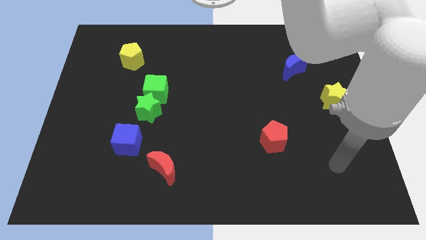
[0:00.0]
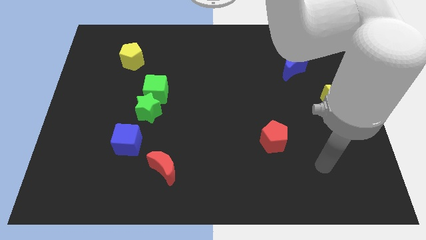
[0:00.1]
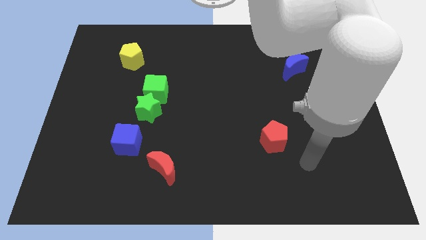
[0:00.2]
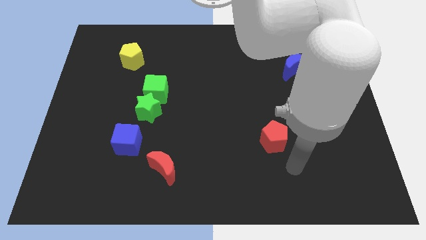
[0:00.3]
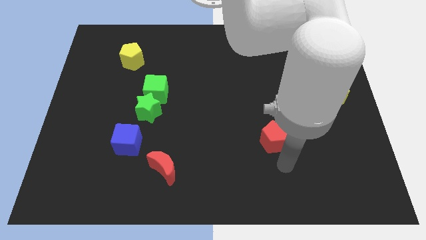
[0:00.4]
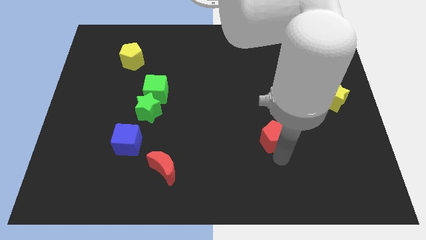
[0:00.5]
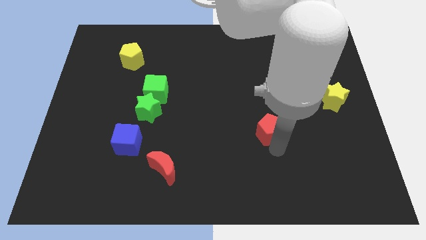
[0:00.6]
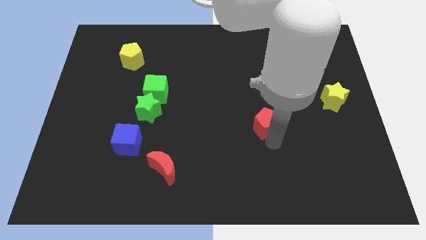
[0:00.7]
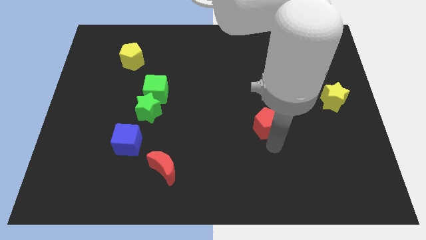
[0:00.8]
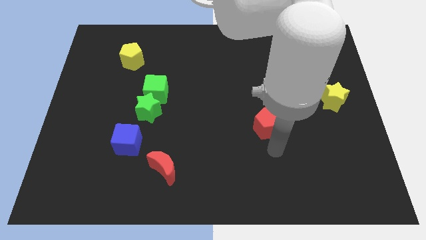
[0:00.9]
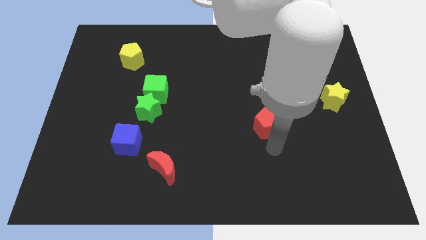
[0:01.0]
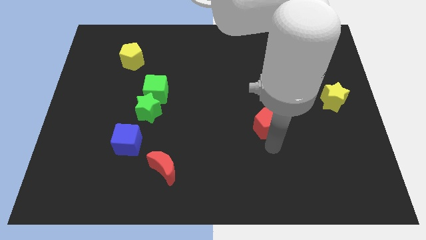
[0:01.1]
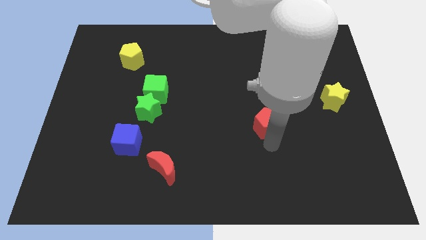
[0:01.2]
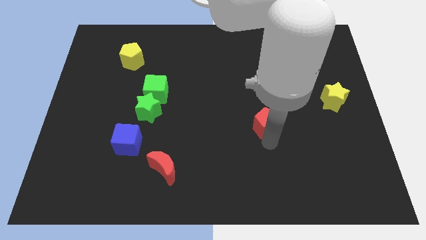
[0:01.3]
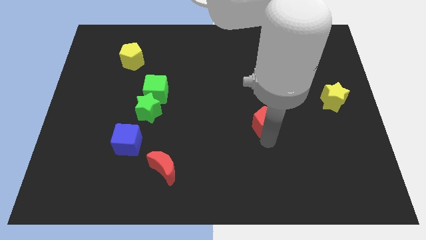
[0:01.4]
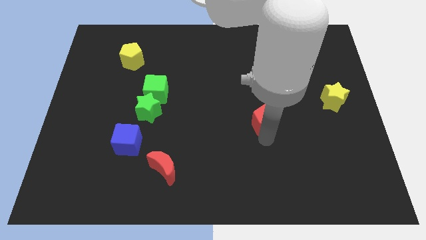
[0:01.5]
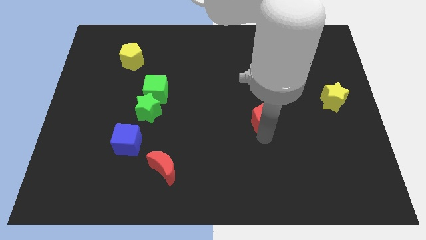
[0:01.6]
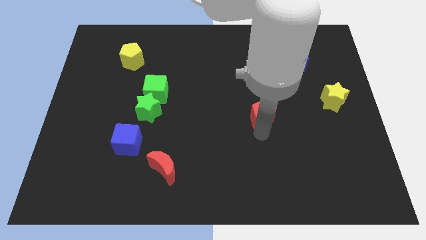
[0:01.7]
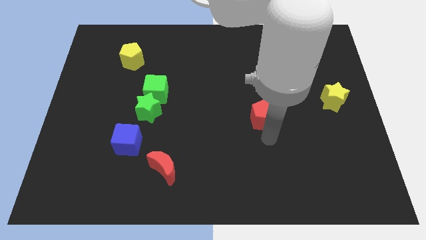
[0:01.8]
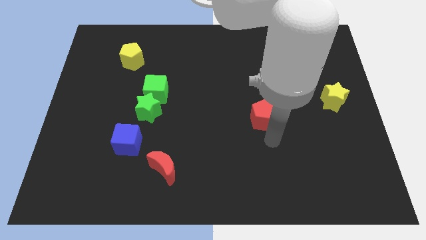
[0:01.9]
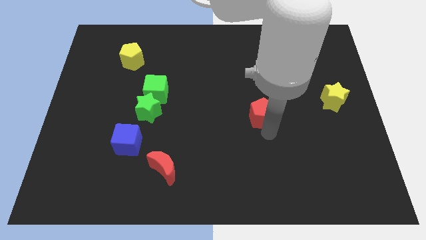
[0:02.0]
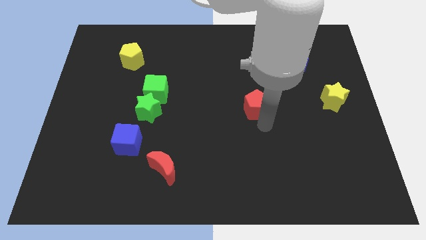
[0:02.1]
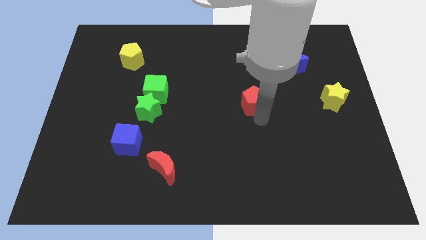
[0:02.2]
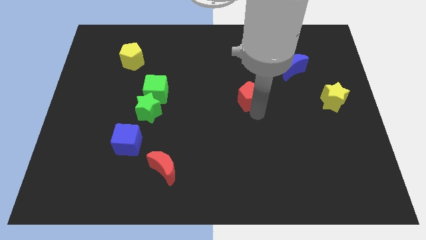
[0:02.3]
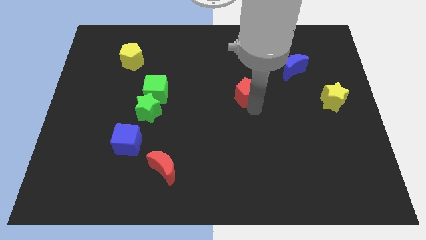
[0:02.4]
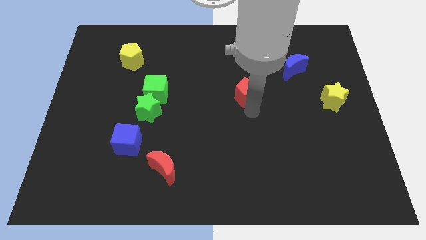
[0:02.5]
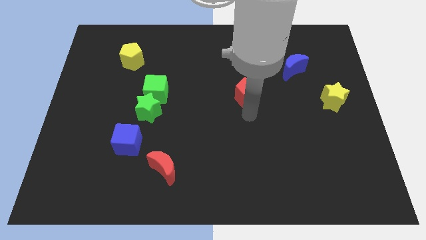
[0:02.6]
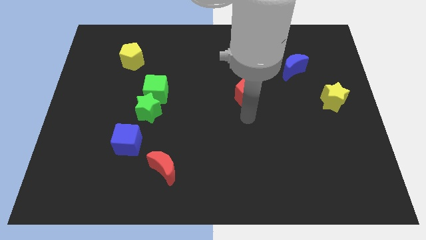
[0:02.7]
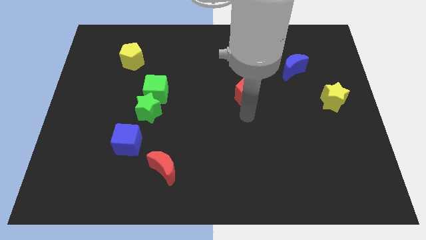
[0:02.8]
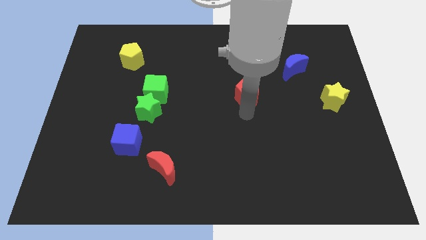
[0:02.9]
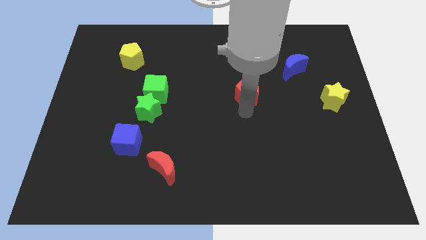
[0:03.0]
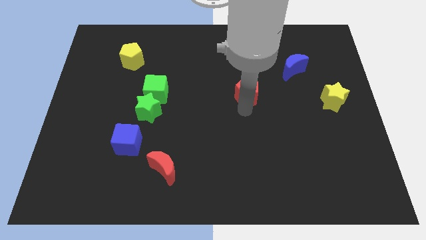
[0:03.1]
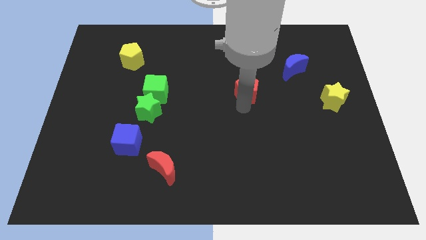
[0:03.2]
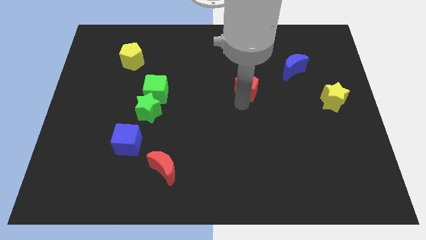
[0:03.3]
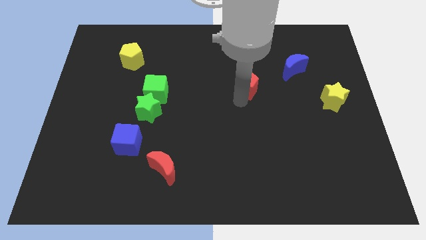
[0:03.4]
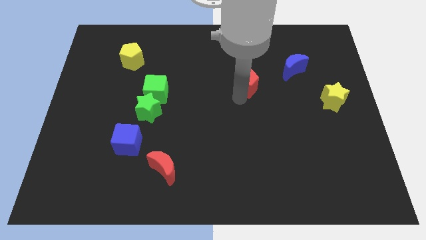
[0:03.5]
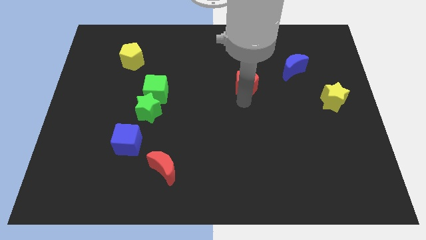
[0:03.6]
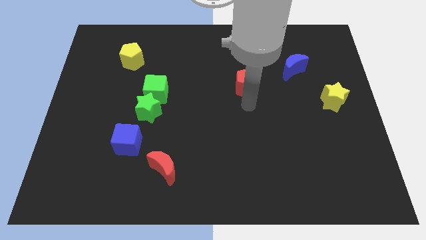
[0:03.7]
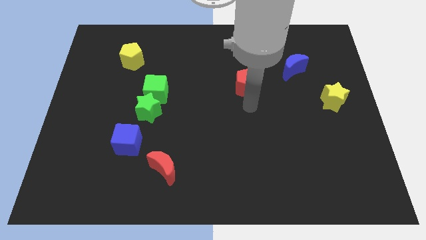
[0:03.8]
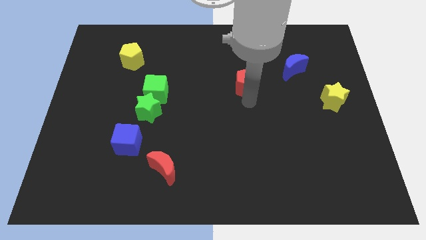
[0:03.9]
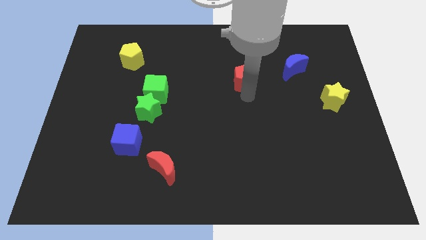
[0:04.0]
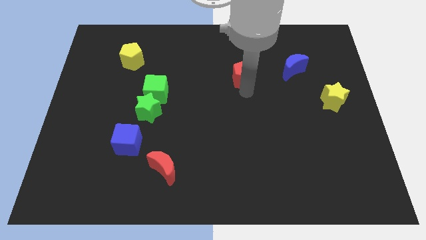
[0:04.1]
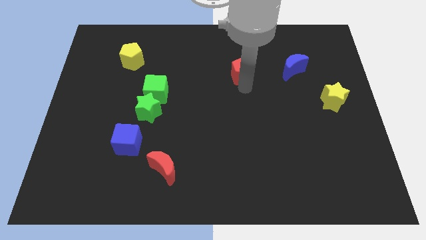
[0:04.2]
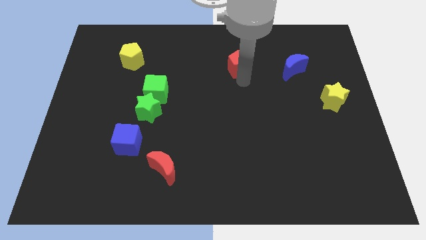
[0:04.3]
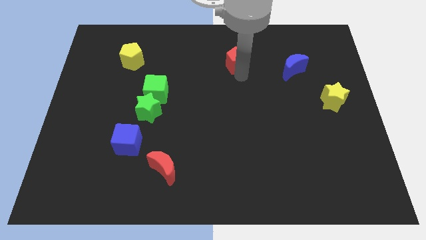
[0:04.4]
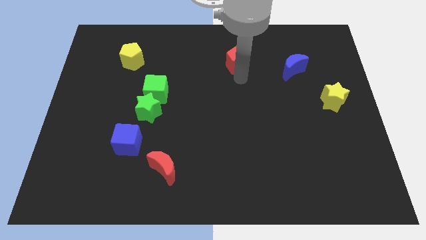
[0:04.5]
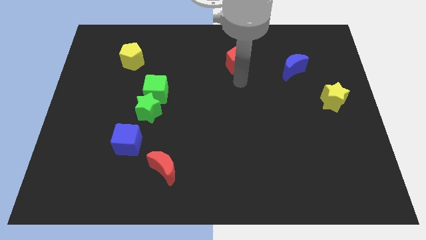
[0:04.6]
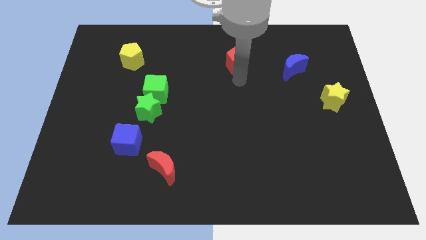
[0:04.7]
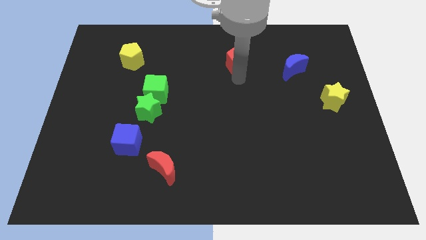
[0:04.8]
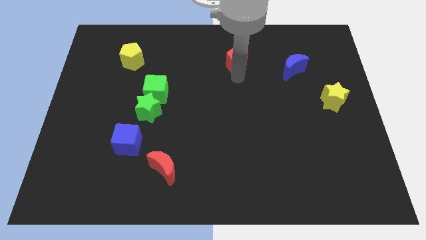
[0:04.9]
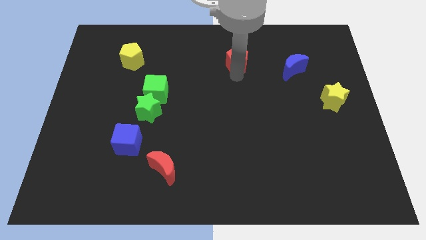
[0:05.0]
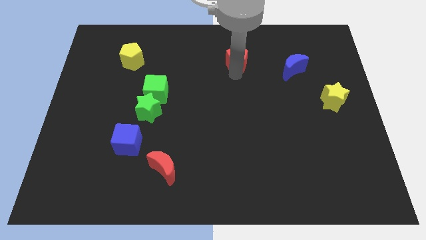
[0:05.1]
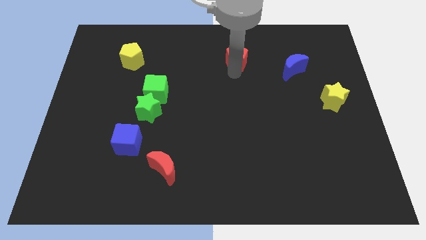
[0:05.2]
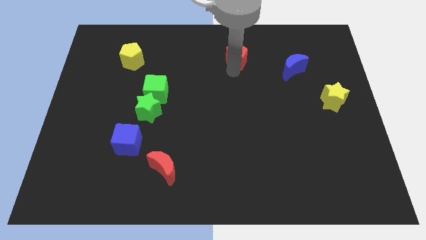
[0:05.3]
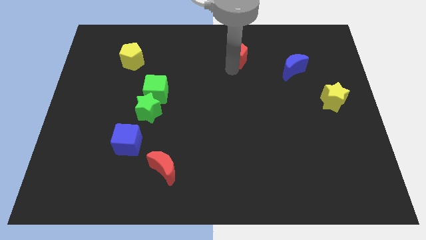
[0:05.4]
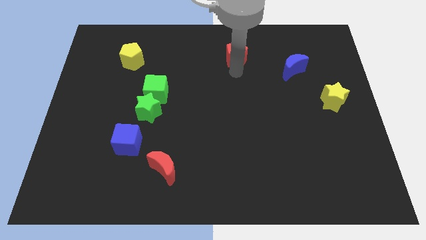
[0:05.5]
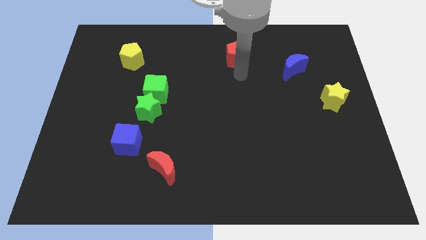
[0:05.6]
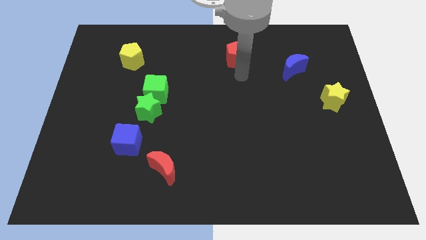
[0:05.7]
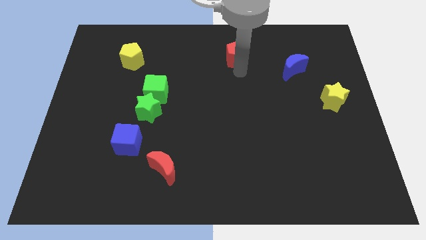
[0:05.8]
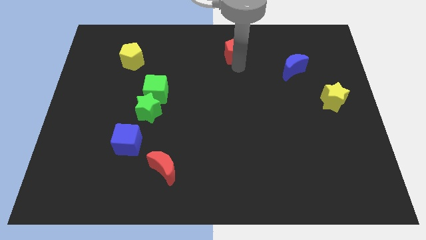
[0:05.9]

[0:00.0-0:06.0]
slide the red pentagon to the top side
